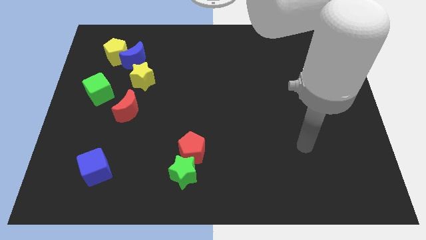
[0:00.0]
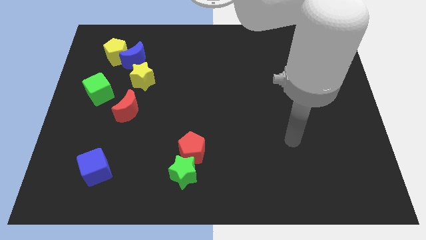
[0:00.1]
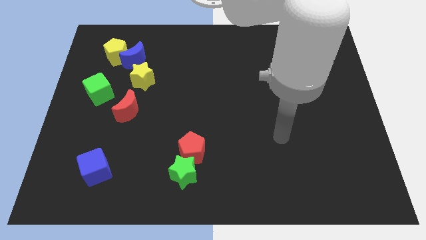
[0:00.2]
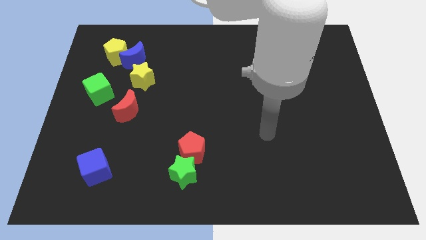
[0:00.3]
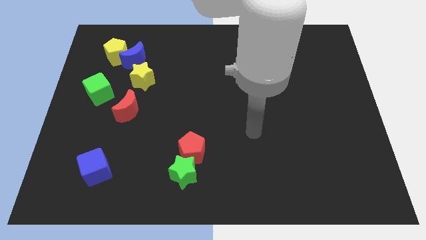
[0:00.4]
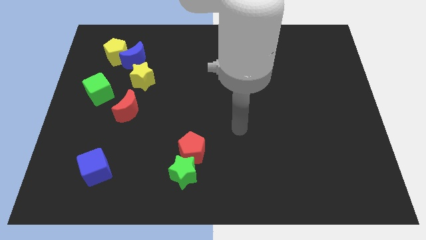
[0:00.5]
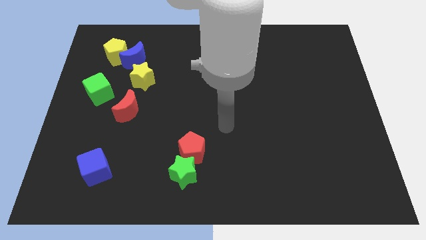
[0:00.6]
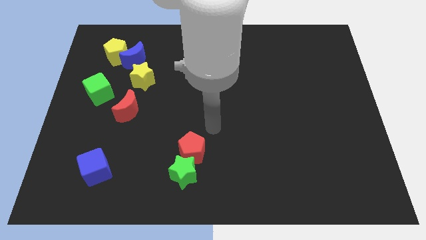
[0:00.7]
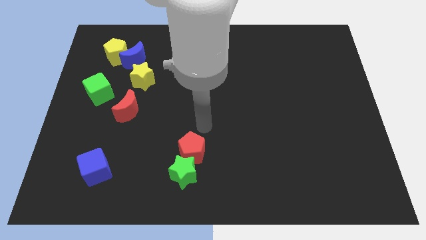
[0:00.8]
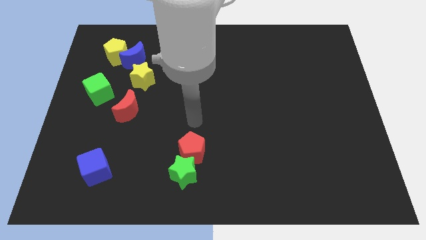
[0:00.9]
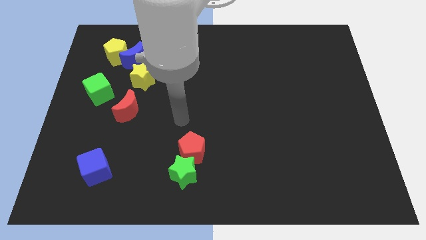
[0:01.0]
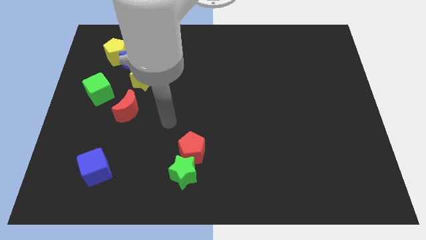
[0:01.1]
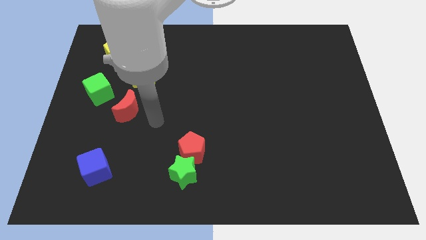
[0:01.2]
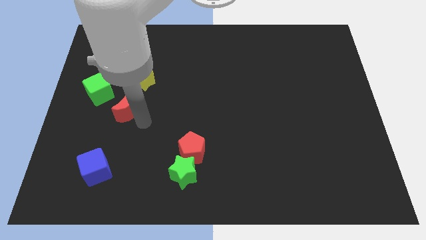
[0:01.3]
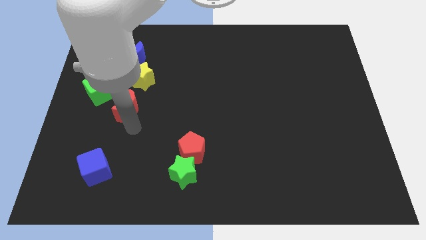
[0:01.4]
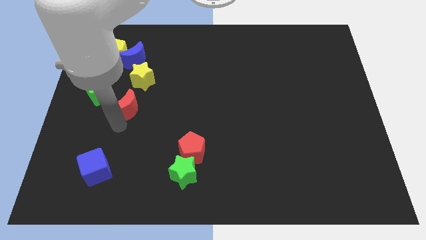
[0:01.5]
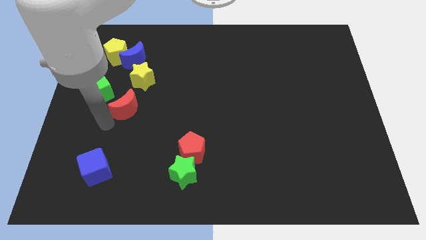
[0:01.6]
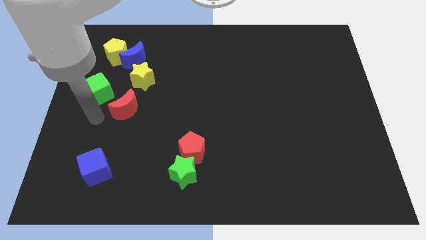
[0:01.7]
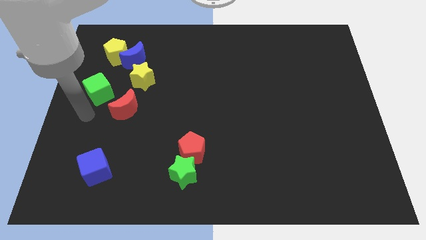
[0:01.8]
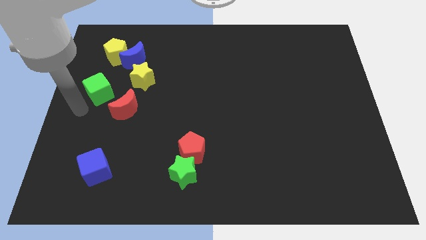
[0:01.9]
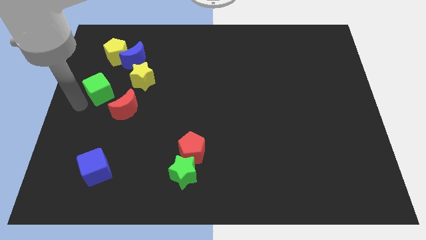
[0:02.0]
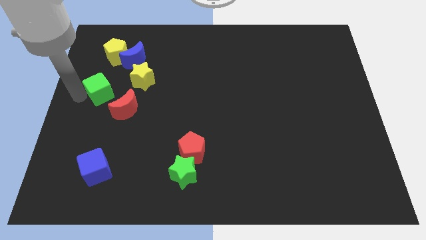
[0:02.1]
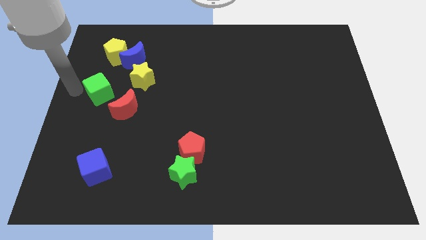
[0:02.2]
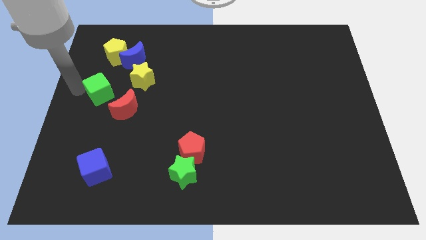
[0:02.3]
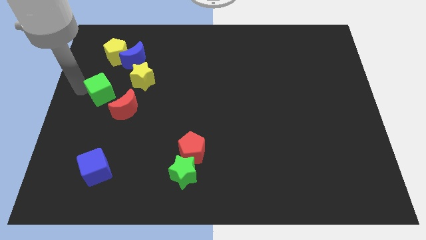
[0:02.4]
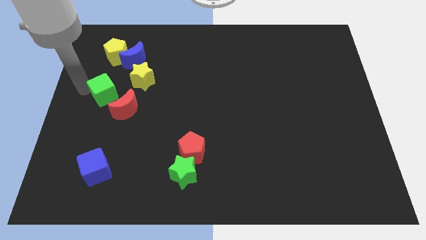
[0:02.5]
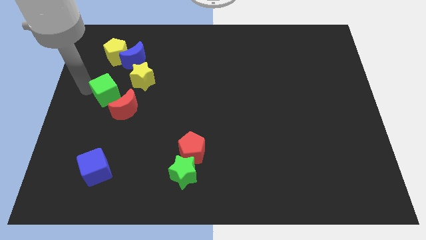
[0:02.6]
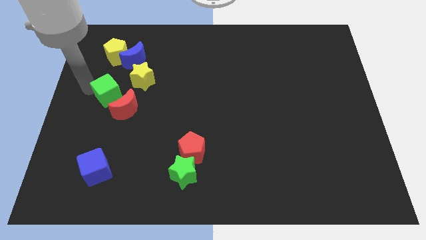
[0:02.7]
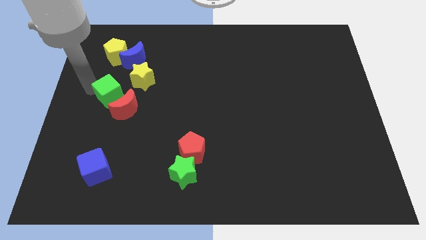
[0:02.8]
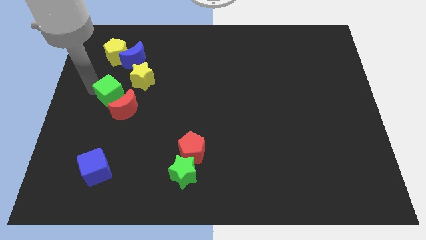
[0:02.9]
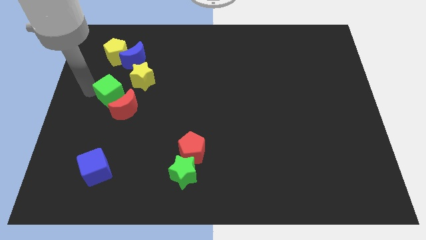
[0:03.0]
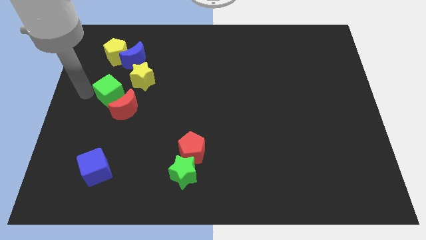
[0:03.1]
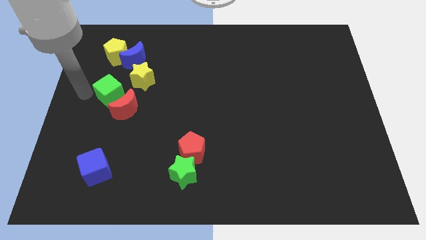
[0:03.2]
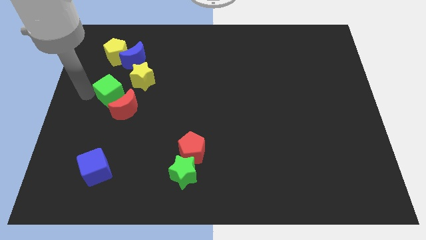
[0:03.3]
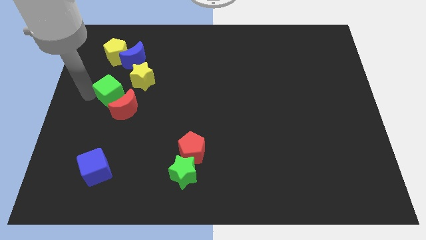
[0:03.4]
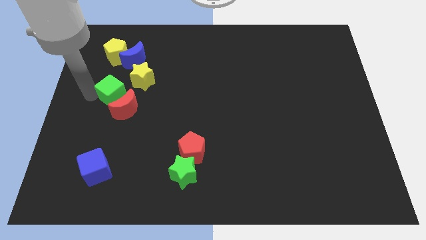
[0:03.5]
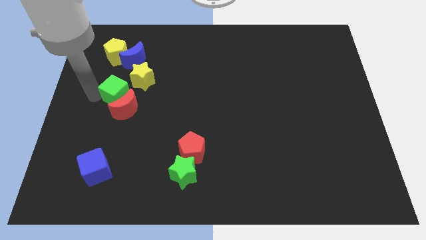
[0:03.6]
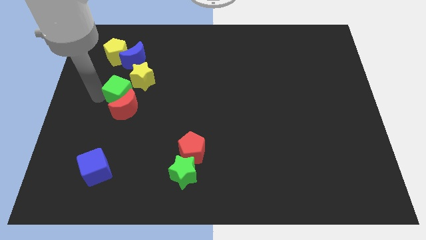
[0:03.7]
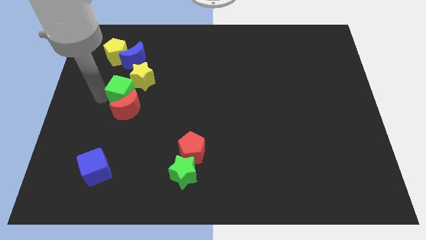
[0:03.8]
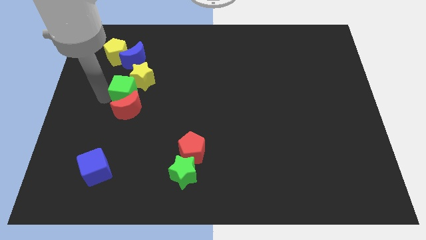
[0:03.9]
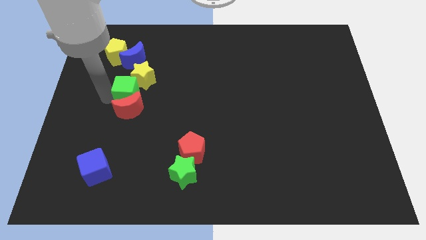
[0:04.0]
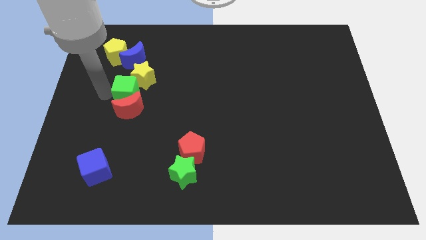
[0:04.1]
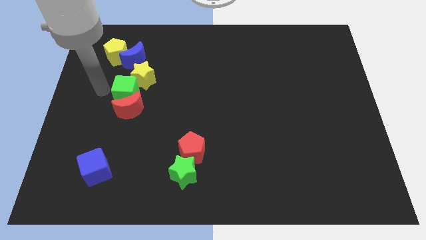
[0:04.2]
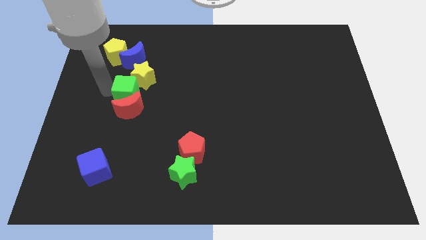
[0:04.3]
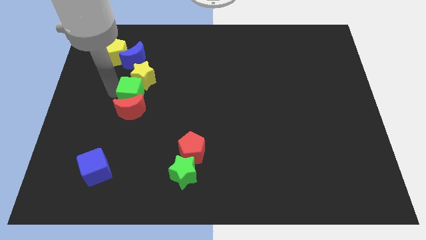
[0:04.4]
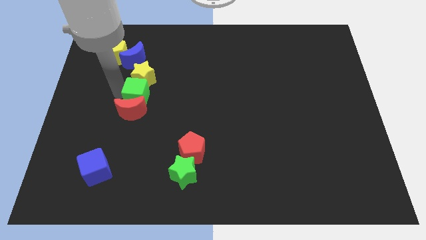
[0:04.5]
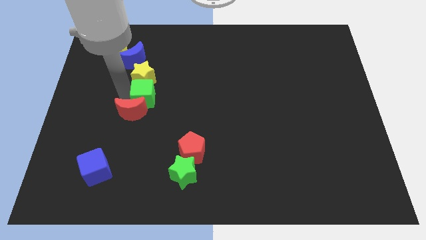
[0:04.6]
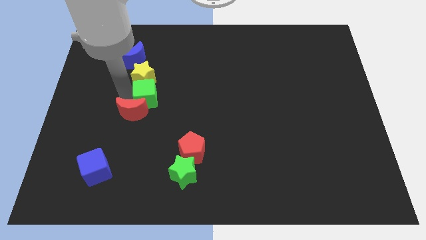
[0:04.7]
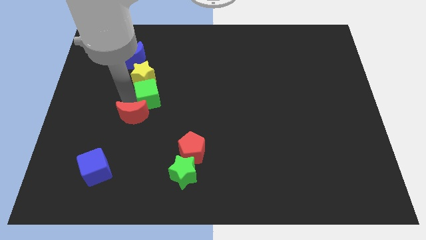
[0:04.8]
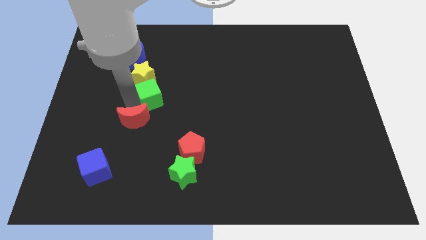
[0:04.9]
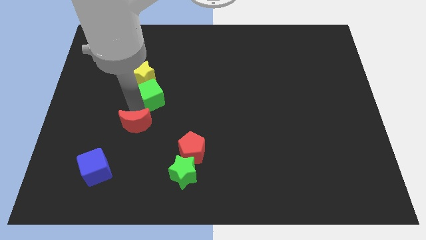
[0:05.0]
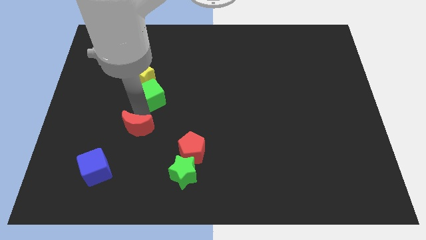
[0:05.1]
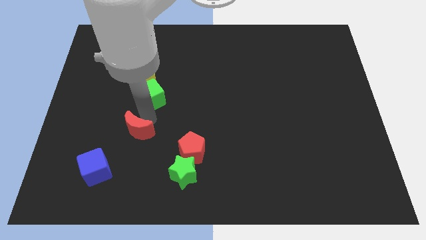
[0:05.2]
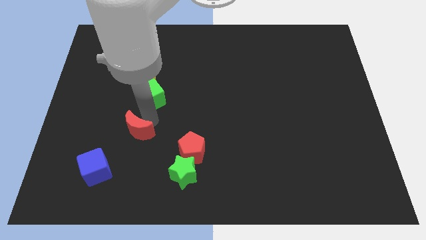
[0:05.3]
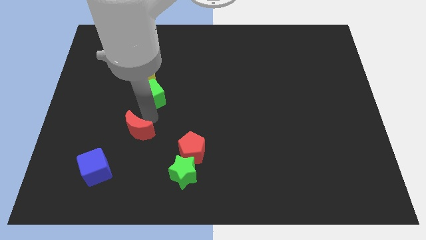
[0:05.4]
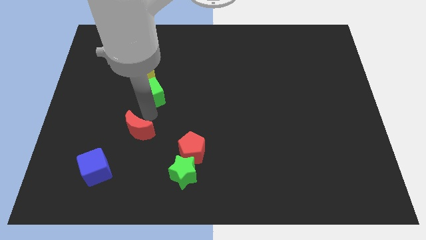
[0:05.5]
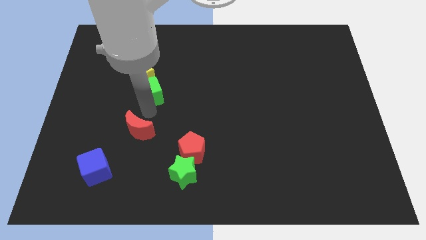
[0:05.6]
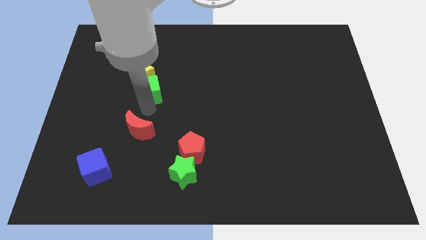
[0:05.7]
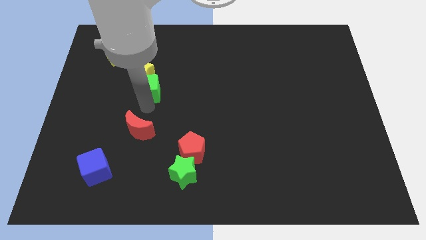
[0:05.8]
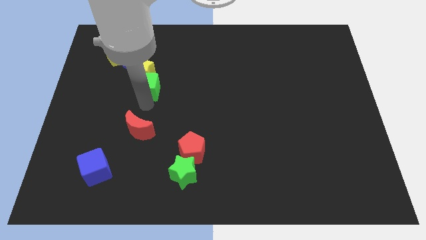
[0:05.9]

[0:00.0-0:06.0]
push the green cube diagonally down and to the right of the blue moon

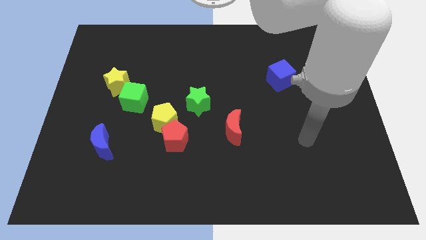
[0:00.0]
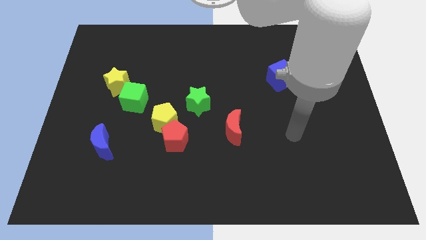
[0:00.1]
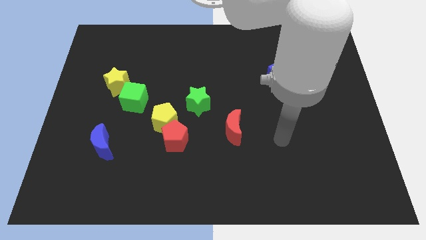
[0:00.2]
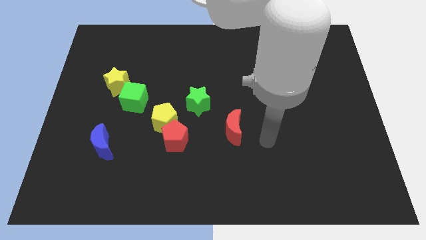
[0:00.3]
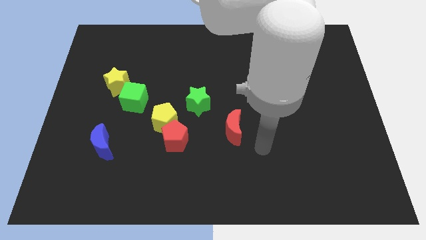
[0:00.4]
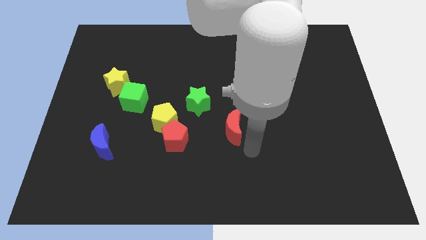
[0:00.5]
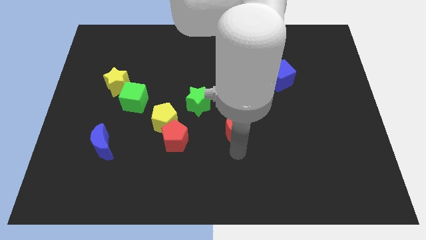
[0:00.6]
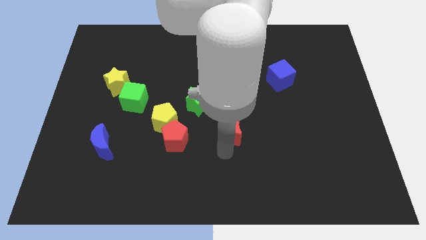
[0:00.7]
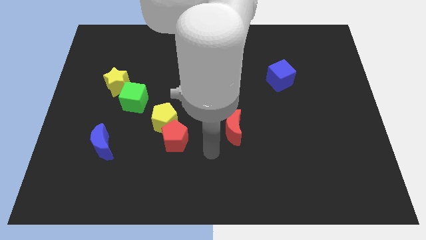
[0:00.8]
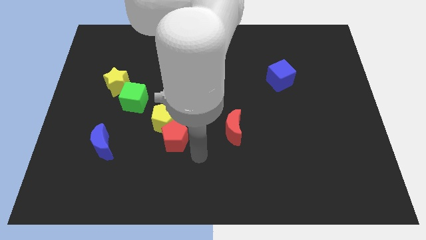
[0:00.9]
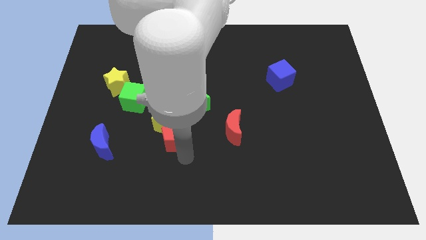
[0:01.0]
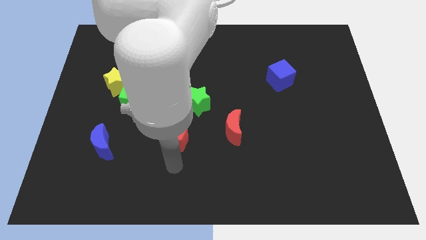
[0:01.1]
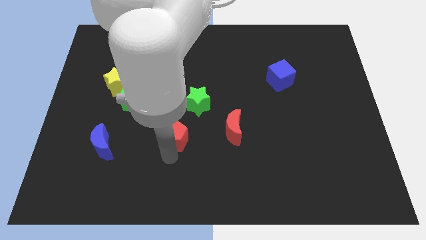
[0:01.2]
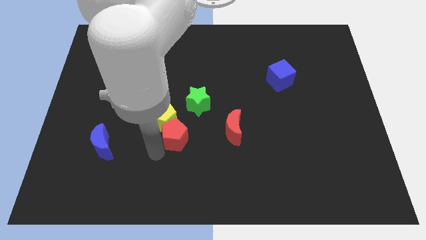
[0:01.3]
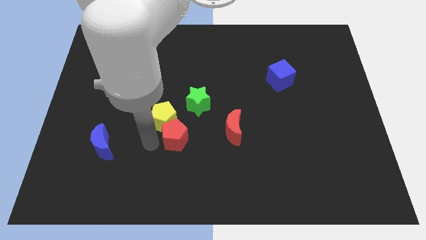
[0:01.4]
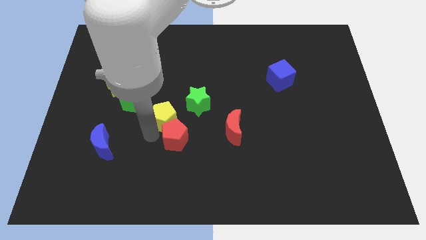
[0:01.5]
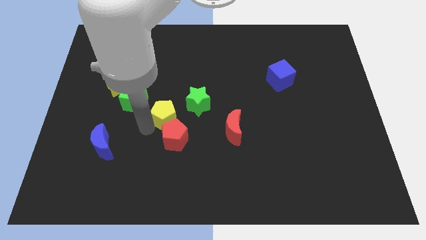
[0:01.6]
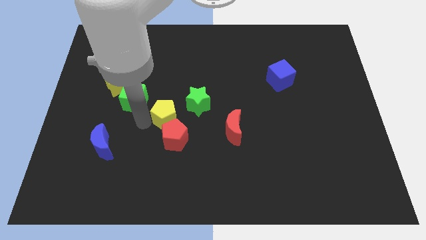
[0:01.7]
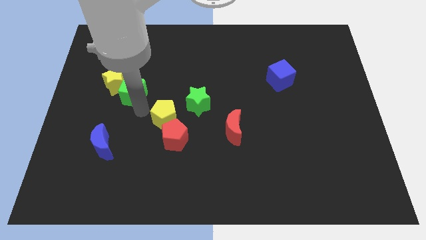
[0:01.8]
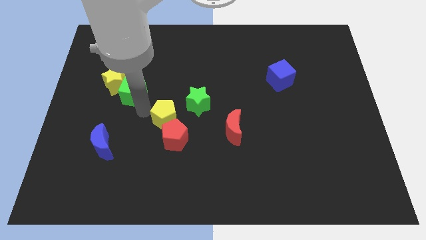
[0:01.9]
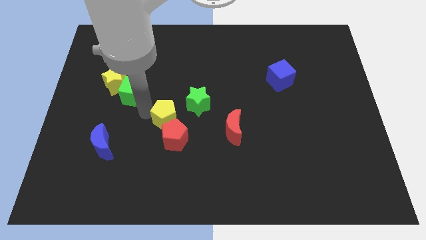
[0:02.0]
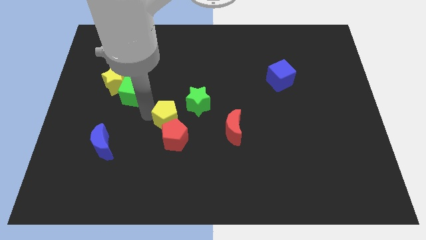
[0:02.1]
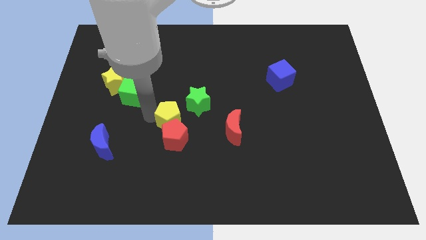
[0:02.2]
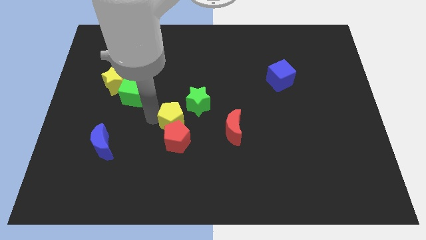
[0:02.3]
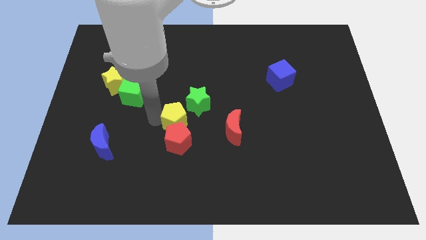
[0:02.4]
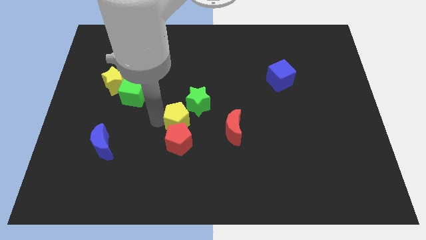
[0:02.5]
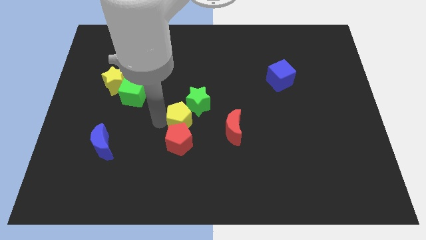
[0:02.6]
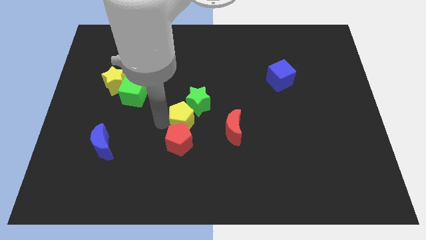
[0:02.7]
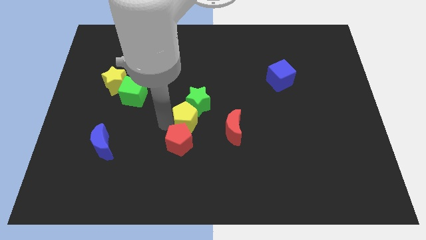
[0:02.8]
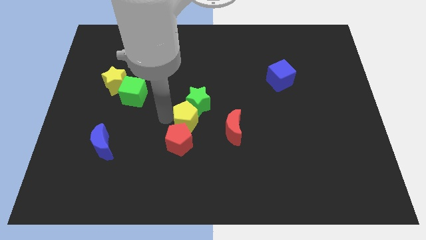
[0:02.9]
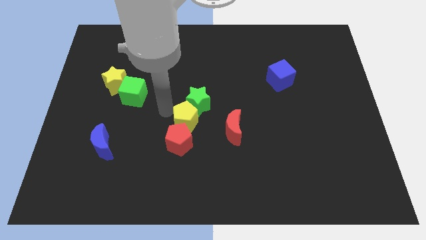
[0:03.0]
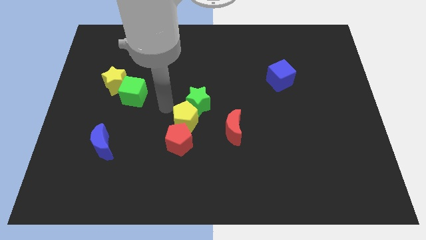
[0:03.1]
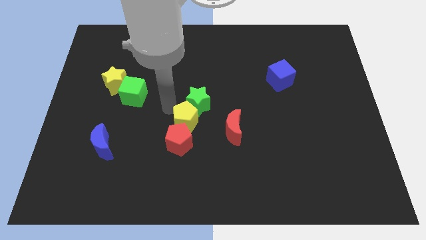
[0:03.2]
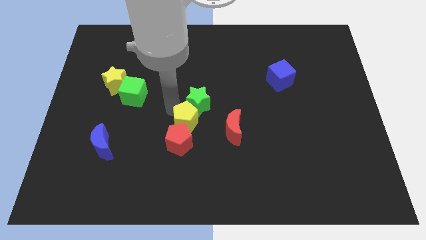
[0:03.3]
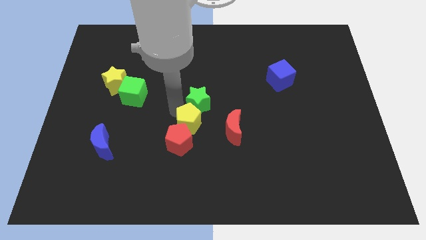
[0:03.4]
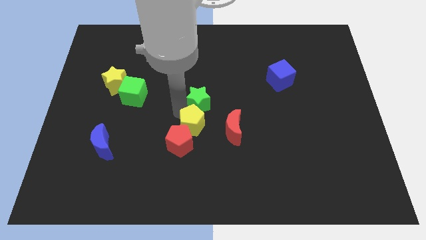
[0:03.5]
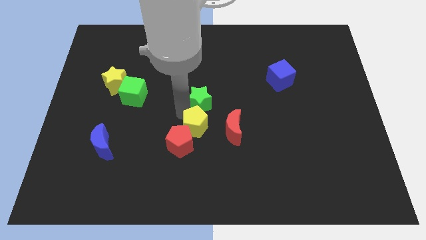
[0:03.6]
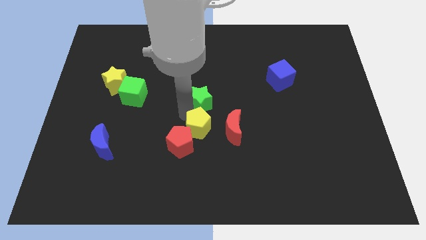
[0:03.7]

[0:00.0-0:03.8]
put the yellow pentagon right of the red pentagon
